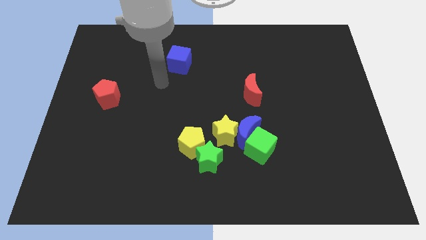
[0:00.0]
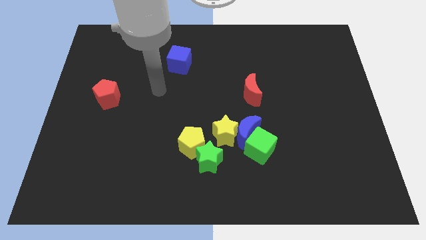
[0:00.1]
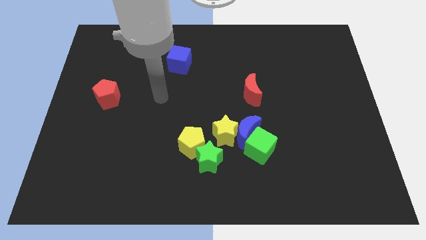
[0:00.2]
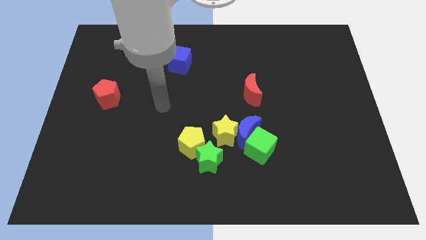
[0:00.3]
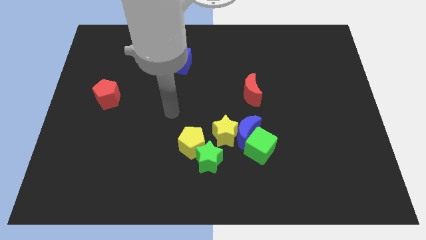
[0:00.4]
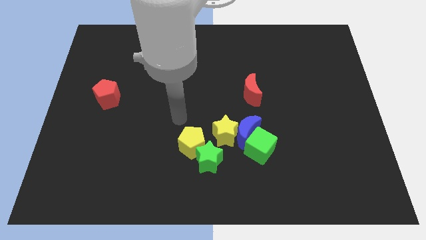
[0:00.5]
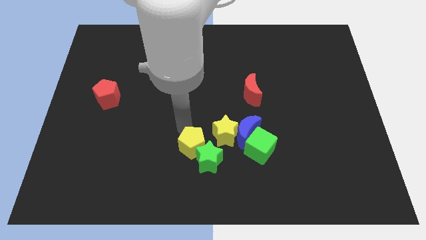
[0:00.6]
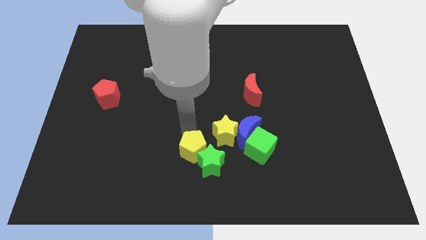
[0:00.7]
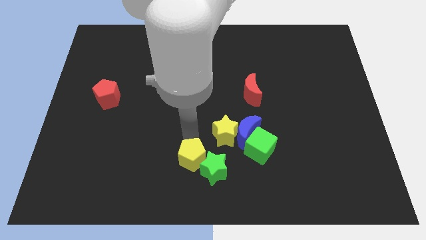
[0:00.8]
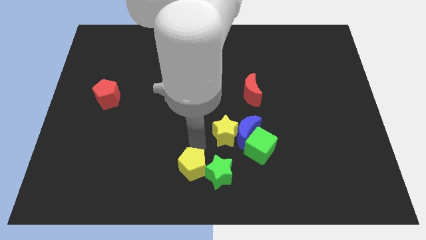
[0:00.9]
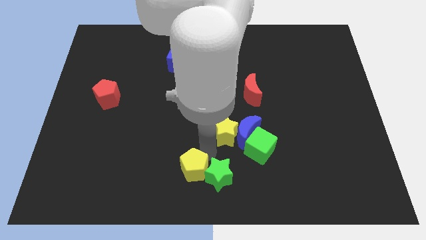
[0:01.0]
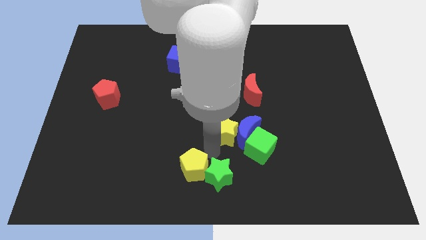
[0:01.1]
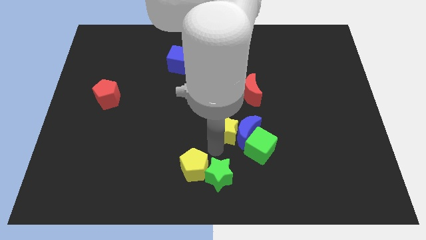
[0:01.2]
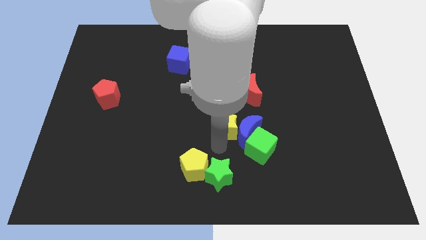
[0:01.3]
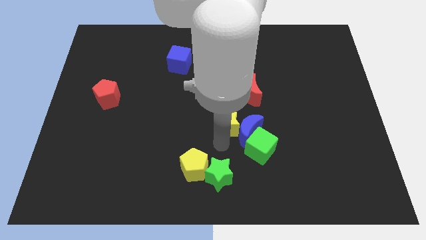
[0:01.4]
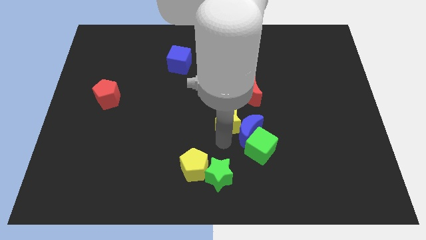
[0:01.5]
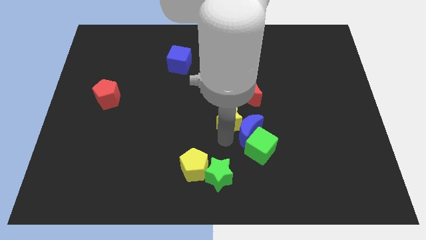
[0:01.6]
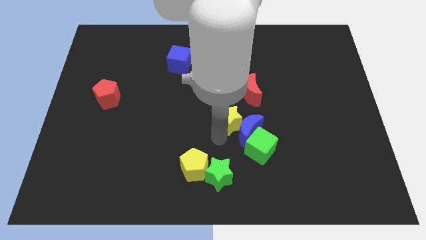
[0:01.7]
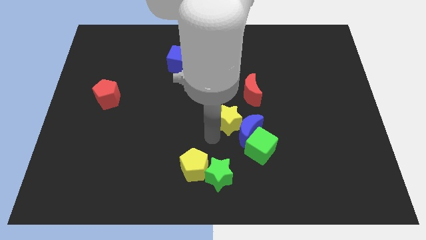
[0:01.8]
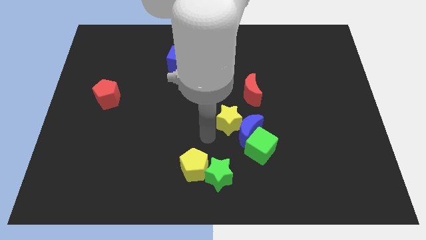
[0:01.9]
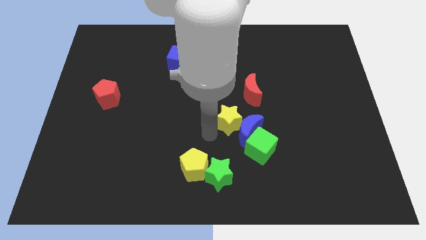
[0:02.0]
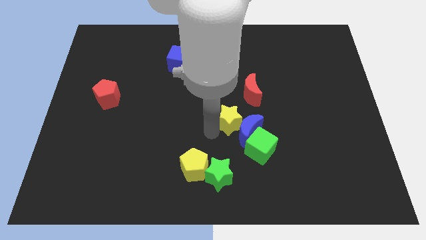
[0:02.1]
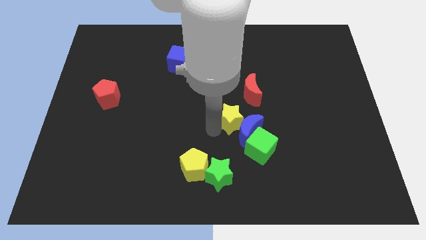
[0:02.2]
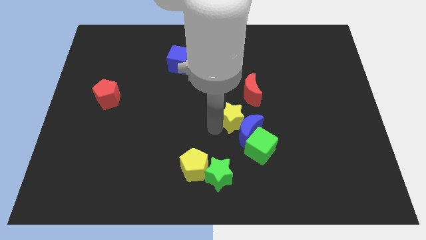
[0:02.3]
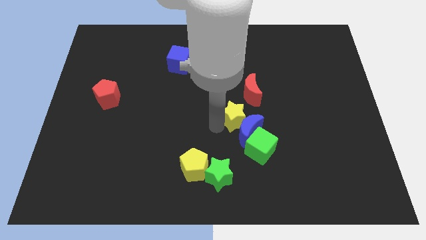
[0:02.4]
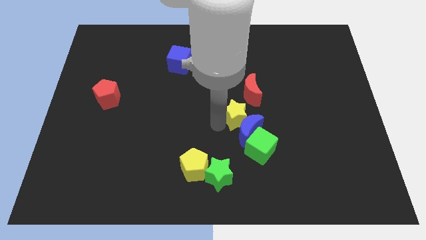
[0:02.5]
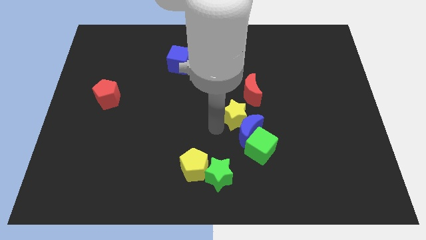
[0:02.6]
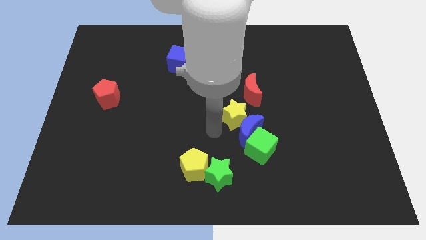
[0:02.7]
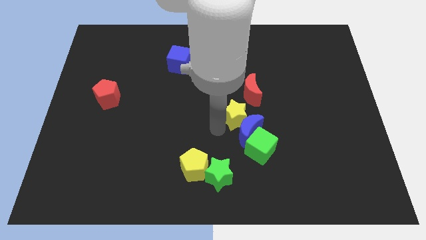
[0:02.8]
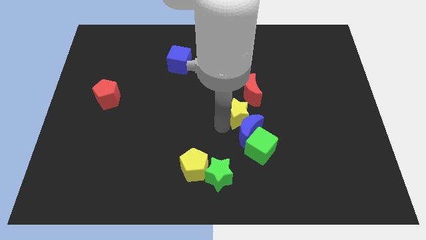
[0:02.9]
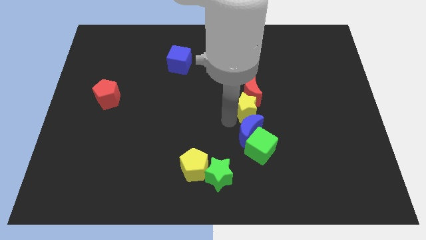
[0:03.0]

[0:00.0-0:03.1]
push the yellow star diagonally up and right slightly

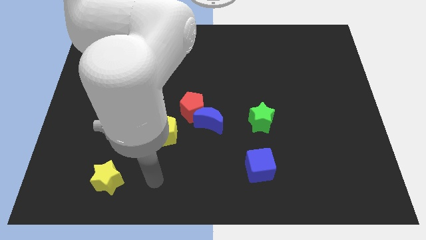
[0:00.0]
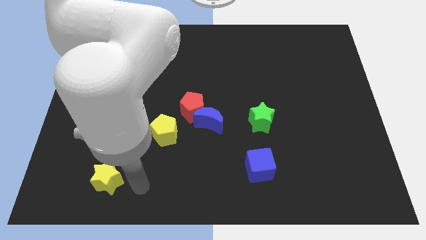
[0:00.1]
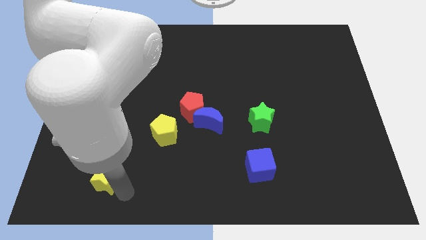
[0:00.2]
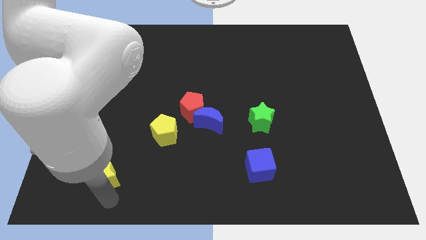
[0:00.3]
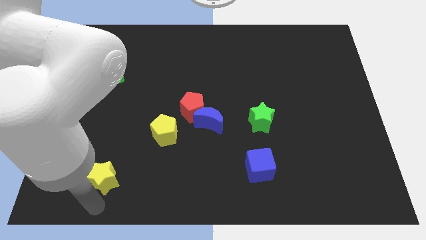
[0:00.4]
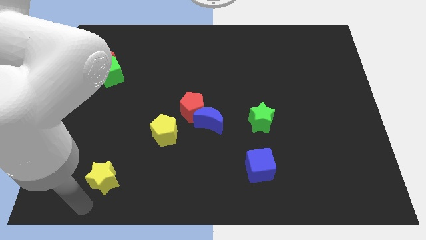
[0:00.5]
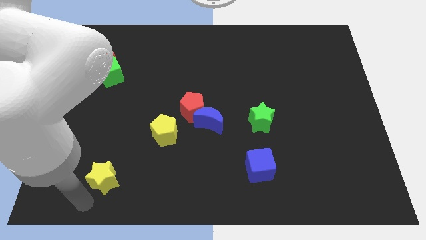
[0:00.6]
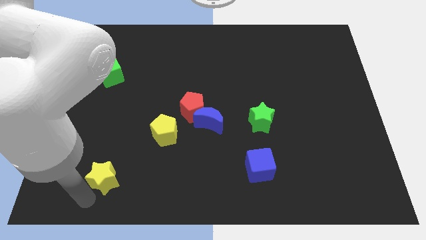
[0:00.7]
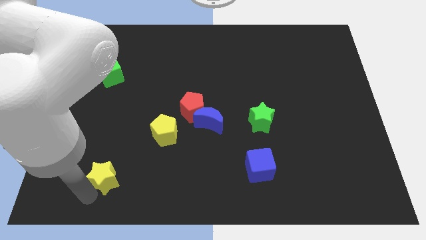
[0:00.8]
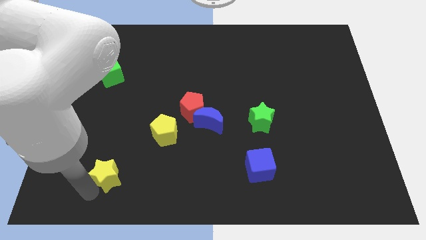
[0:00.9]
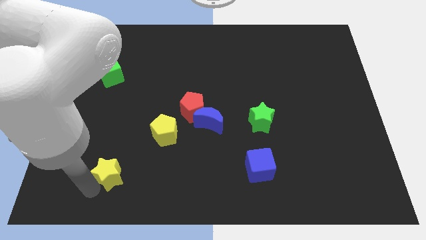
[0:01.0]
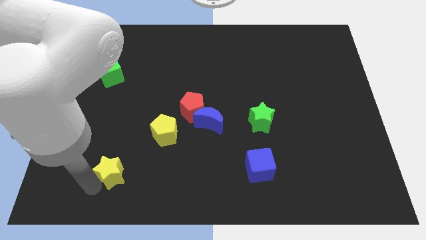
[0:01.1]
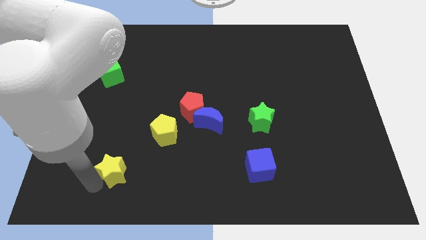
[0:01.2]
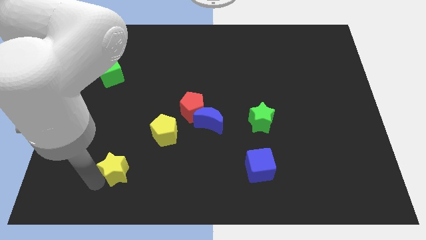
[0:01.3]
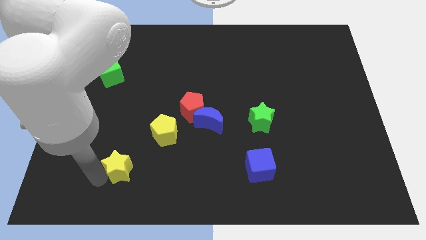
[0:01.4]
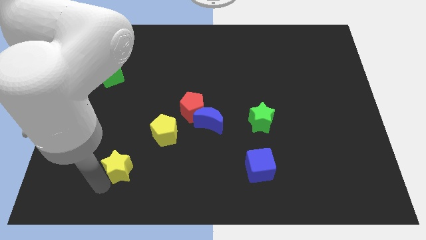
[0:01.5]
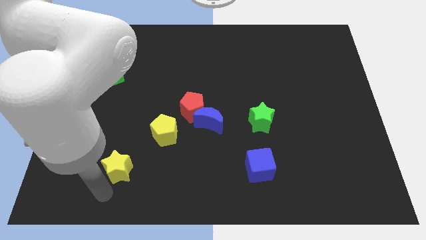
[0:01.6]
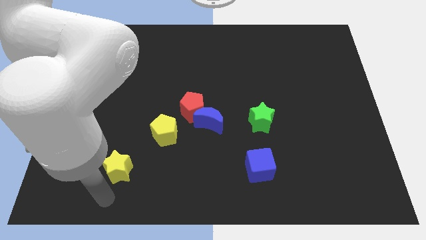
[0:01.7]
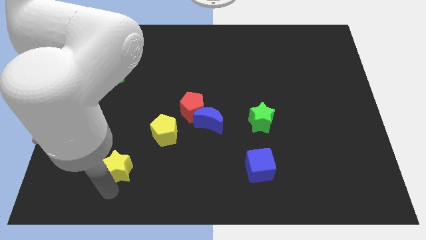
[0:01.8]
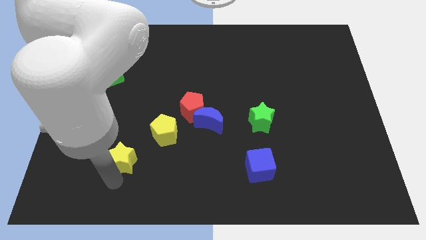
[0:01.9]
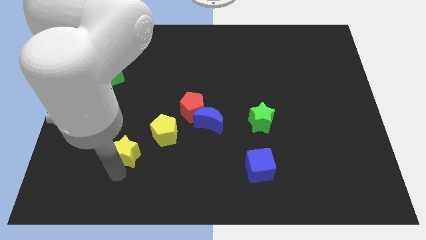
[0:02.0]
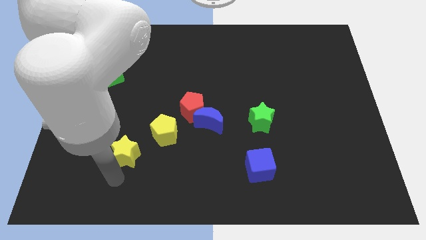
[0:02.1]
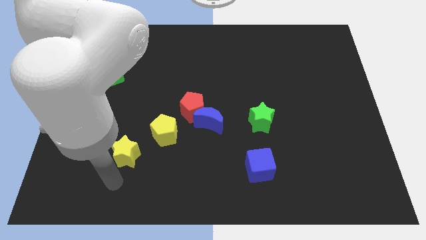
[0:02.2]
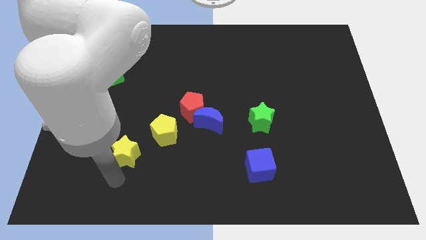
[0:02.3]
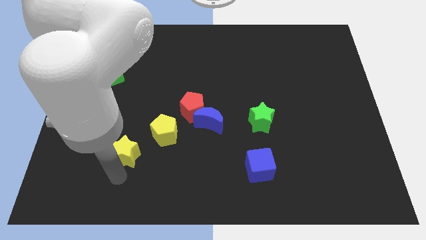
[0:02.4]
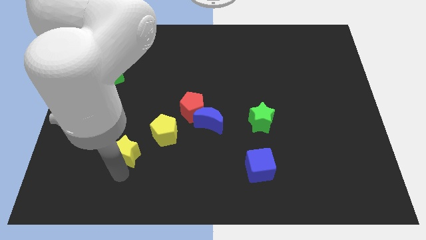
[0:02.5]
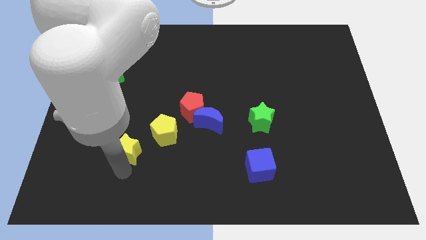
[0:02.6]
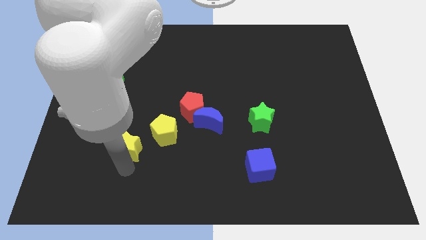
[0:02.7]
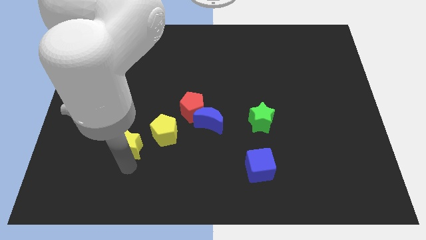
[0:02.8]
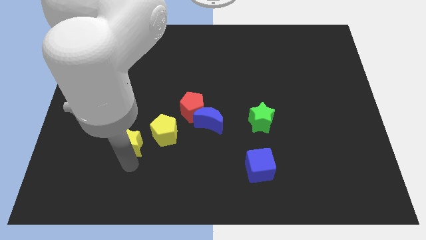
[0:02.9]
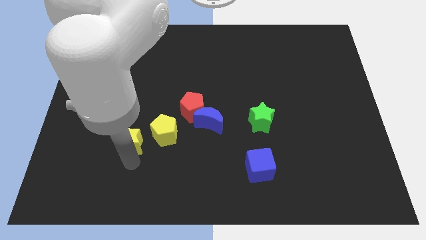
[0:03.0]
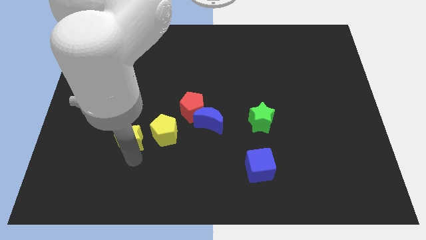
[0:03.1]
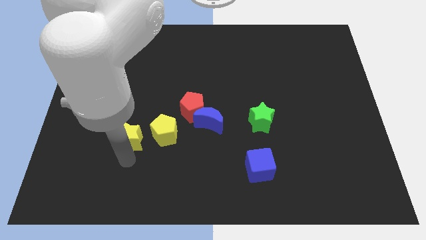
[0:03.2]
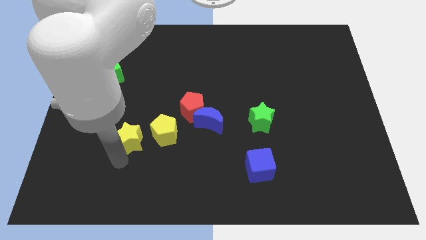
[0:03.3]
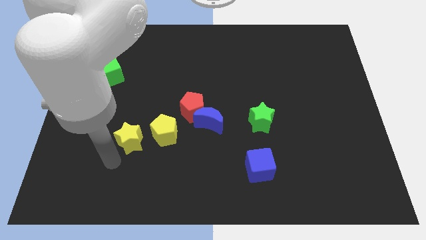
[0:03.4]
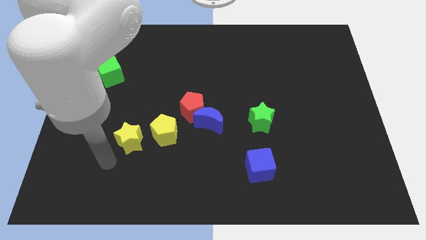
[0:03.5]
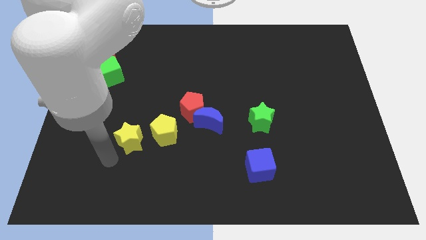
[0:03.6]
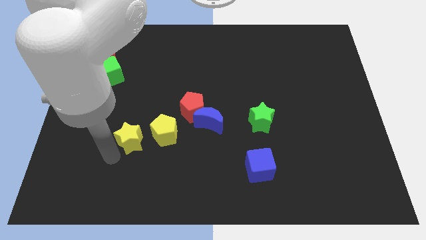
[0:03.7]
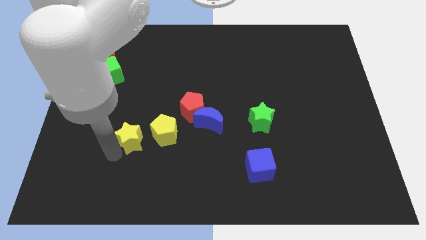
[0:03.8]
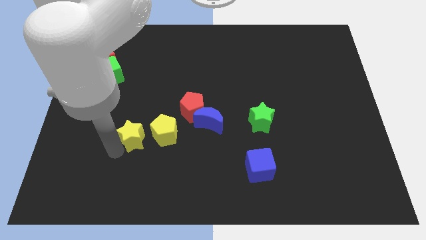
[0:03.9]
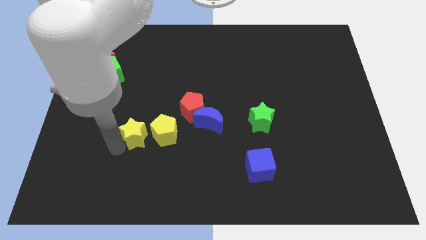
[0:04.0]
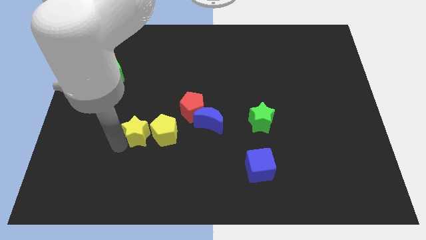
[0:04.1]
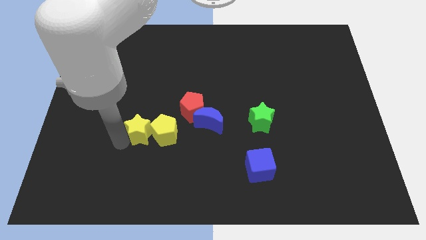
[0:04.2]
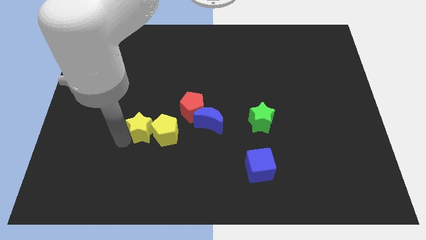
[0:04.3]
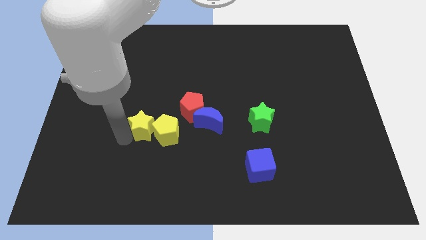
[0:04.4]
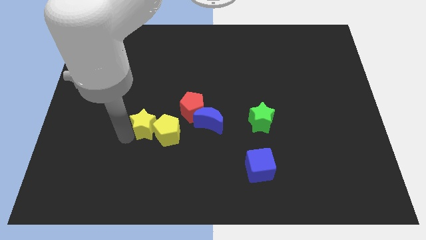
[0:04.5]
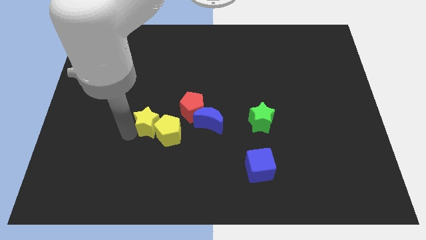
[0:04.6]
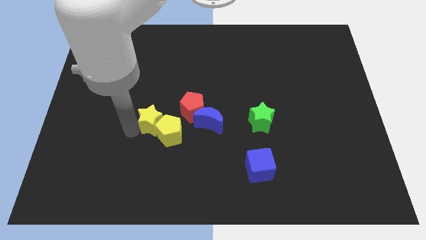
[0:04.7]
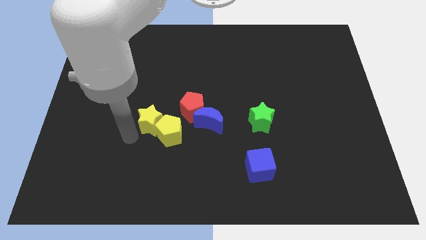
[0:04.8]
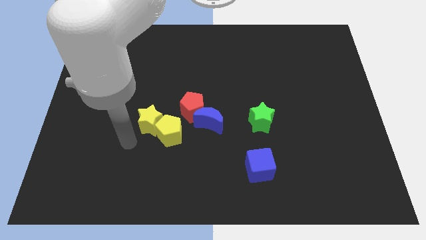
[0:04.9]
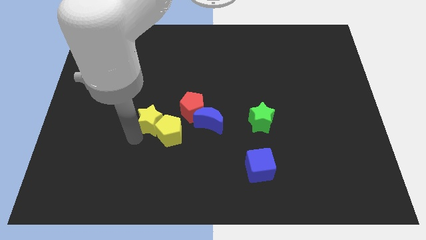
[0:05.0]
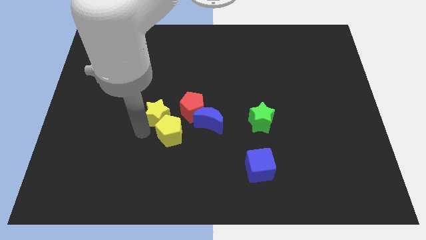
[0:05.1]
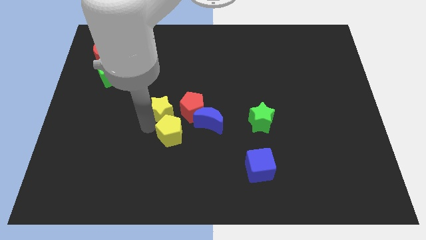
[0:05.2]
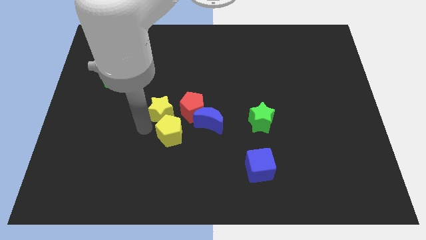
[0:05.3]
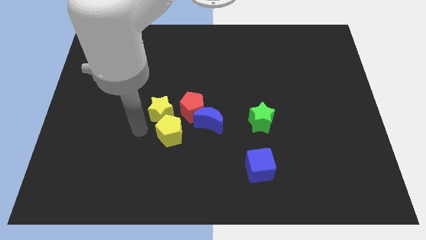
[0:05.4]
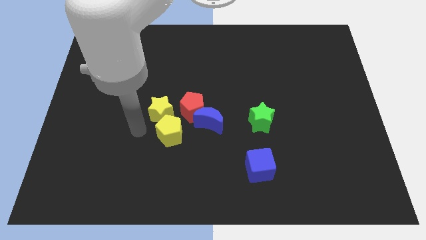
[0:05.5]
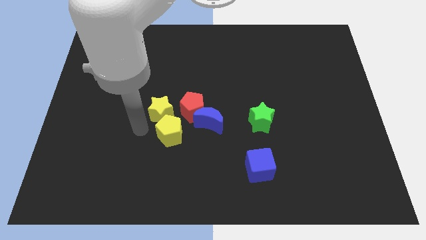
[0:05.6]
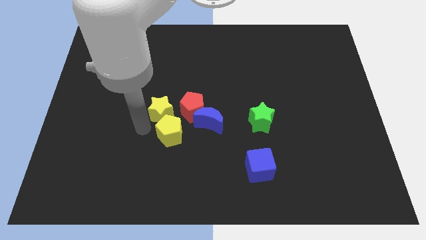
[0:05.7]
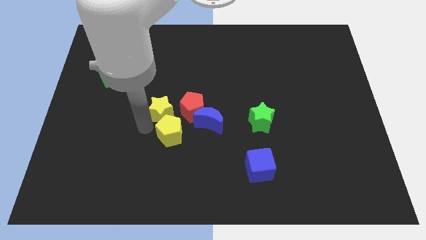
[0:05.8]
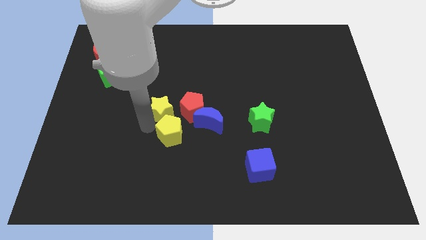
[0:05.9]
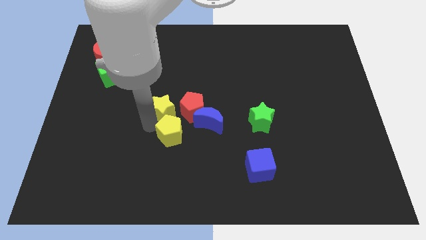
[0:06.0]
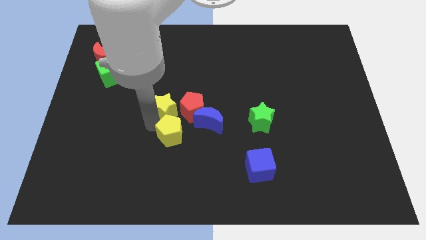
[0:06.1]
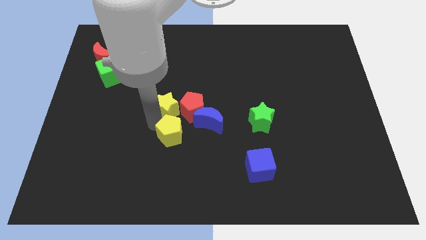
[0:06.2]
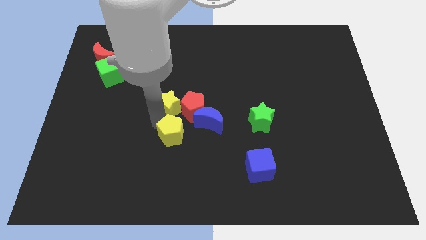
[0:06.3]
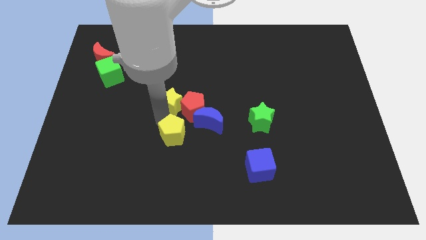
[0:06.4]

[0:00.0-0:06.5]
slide the yellow star diagonally upwards and to the right
